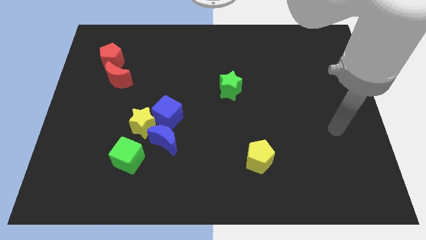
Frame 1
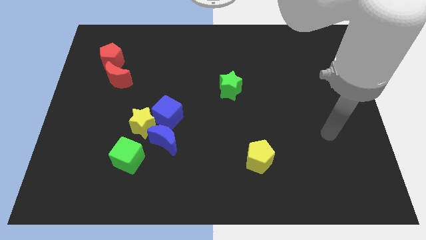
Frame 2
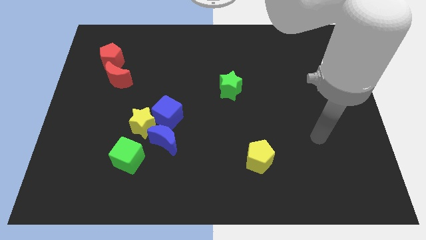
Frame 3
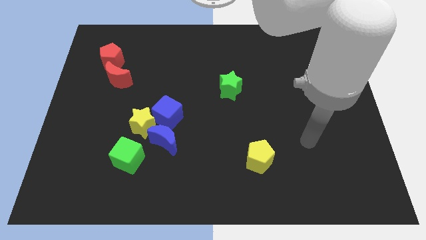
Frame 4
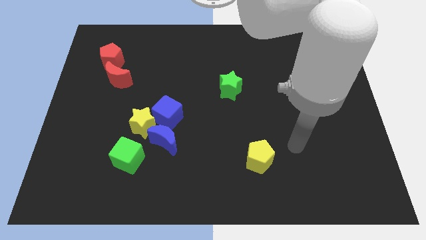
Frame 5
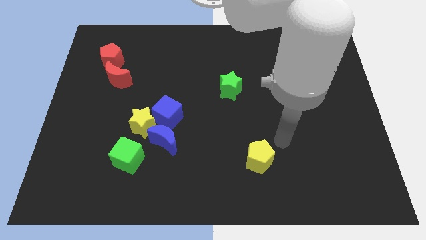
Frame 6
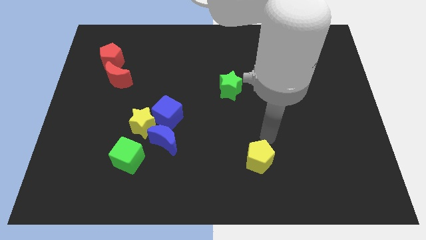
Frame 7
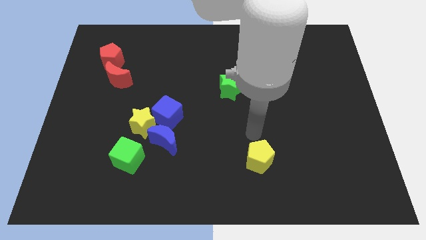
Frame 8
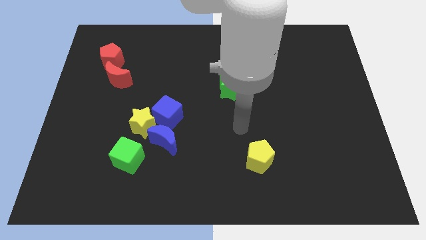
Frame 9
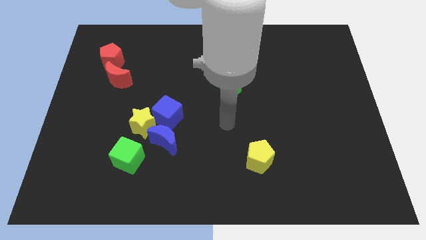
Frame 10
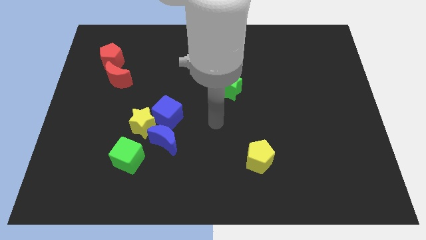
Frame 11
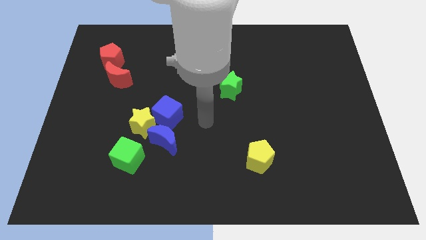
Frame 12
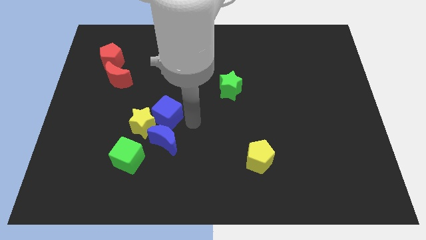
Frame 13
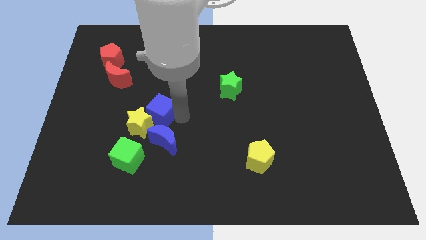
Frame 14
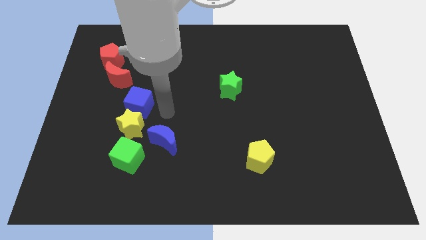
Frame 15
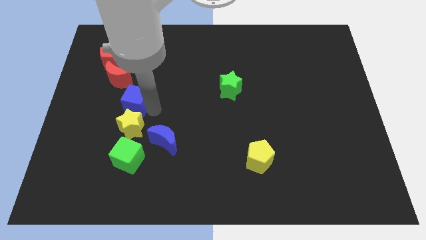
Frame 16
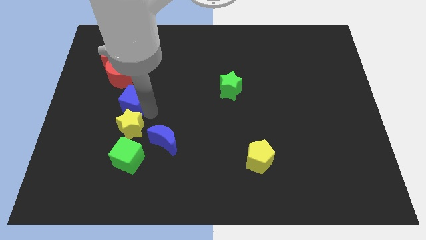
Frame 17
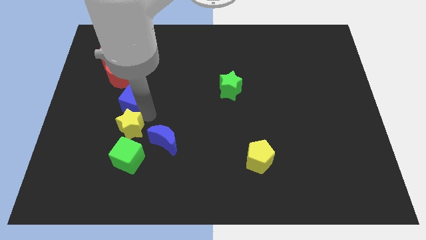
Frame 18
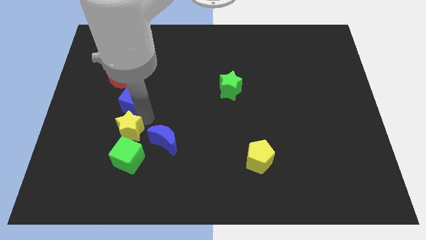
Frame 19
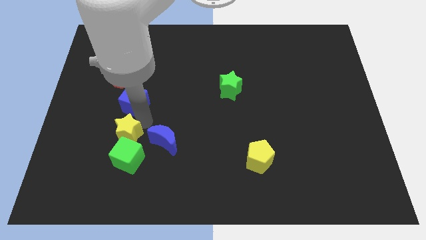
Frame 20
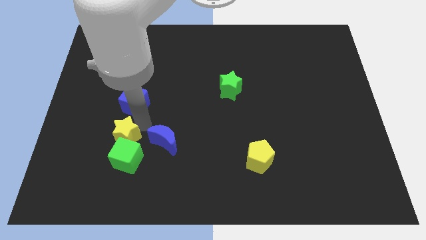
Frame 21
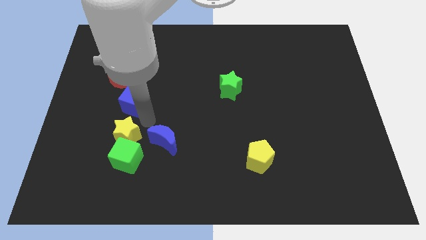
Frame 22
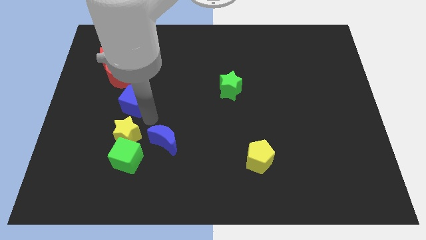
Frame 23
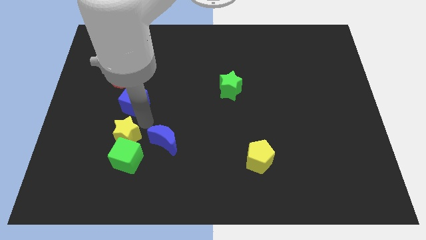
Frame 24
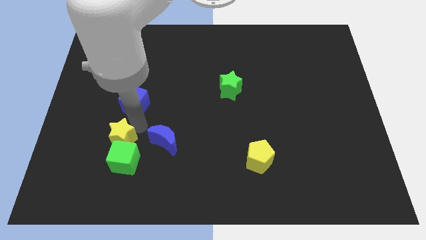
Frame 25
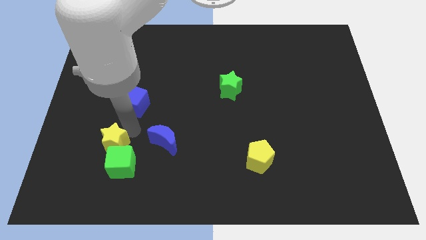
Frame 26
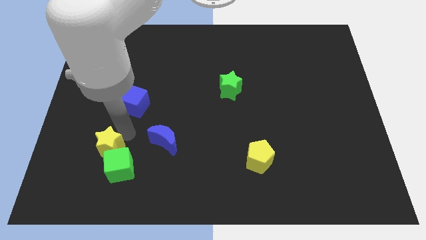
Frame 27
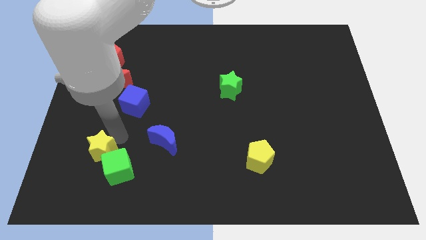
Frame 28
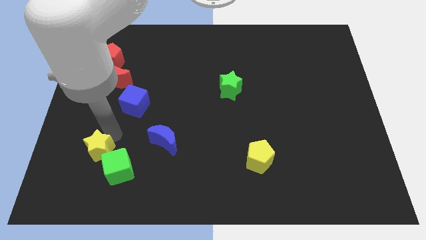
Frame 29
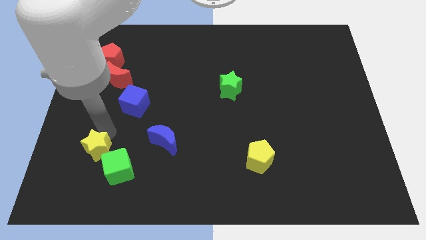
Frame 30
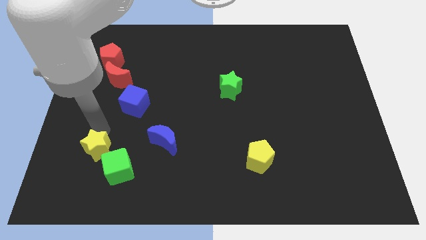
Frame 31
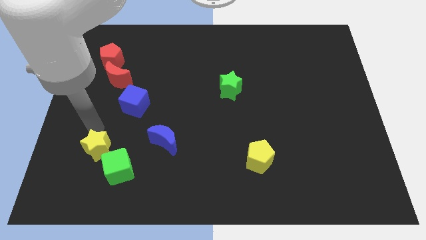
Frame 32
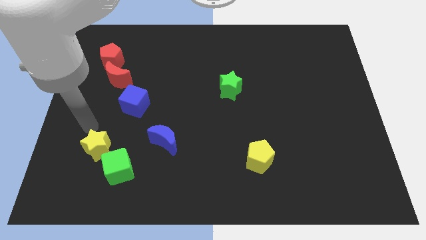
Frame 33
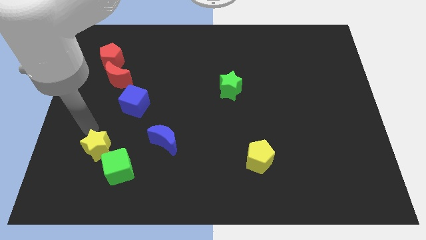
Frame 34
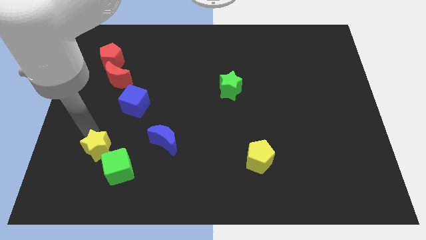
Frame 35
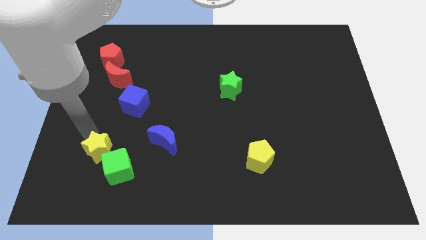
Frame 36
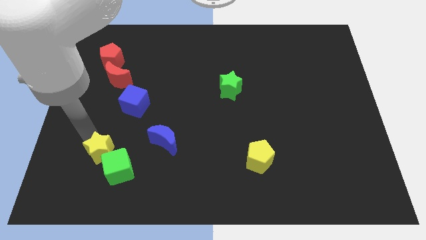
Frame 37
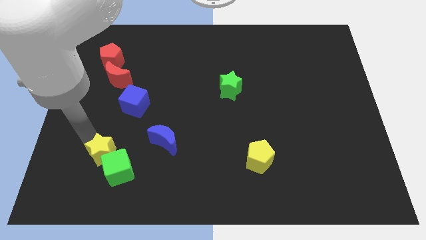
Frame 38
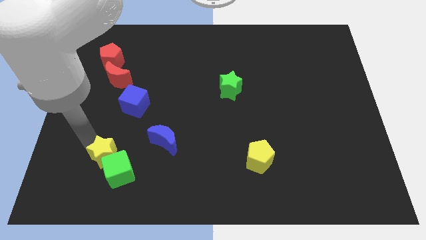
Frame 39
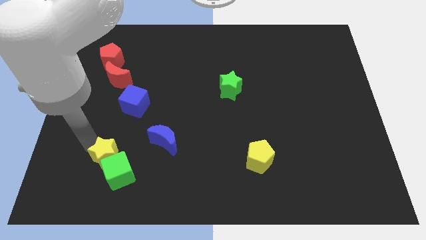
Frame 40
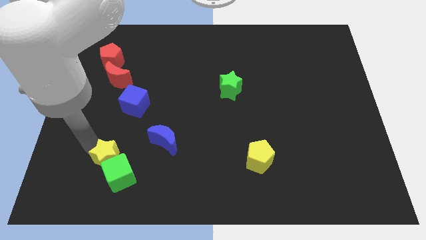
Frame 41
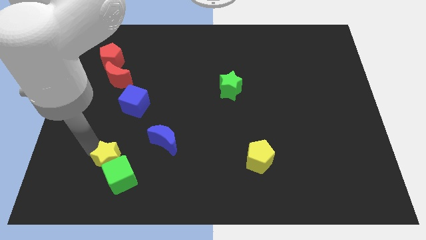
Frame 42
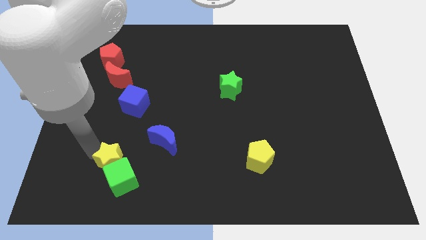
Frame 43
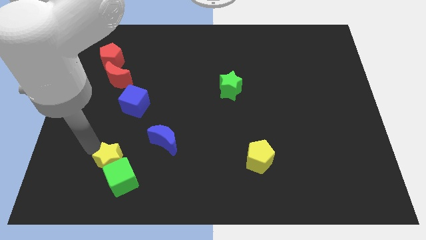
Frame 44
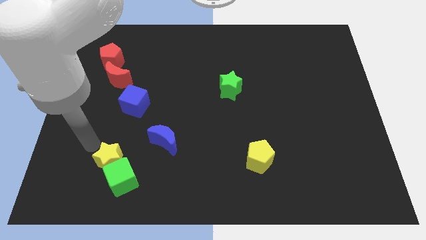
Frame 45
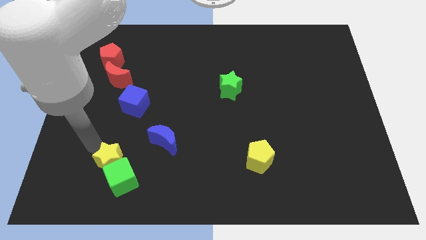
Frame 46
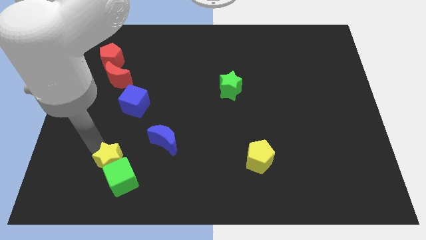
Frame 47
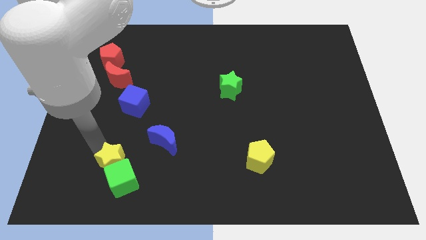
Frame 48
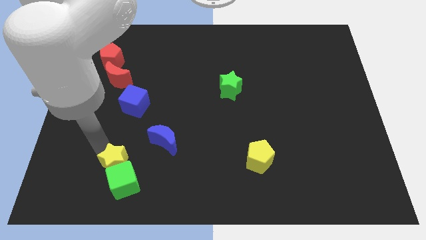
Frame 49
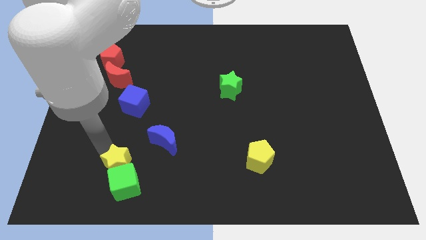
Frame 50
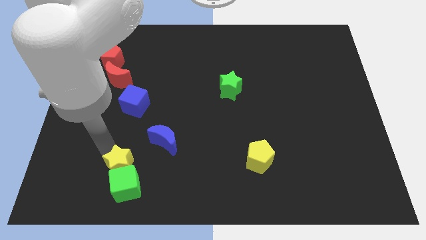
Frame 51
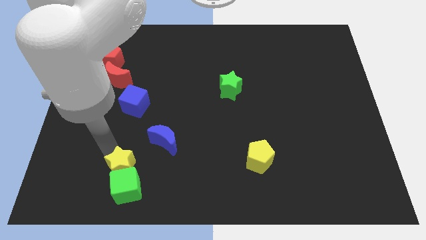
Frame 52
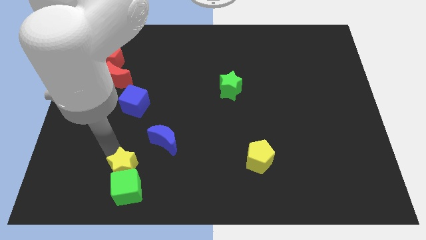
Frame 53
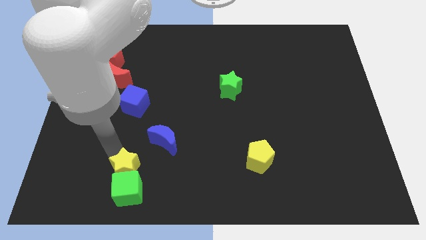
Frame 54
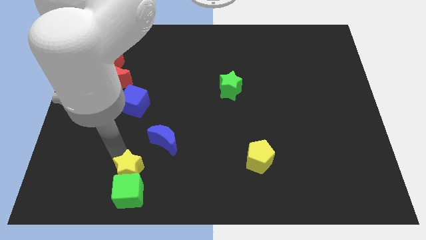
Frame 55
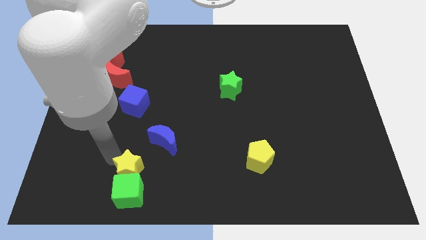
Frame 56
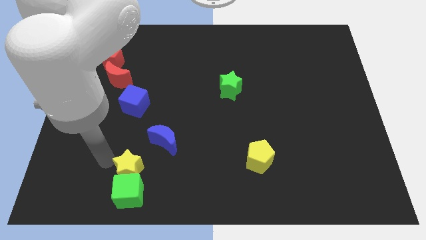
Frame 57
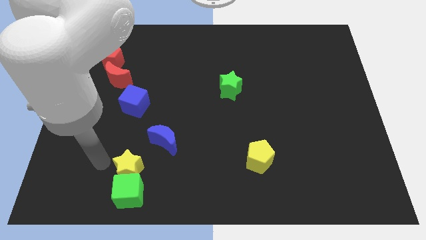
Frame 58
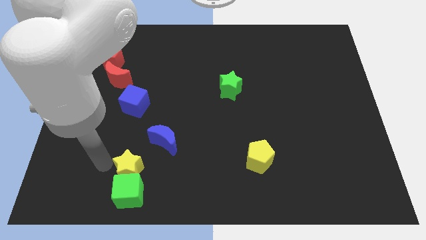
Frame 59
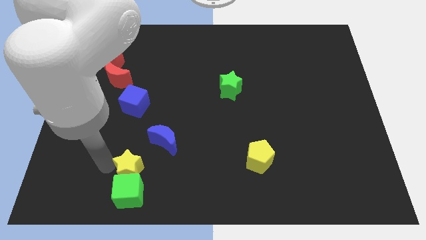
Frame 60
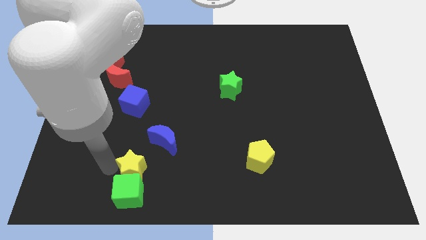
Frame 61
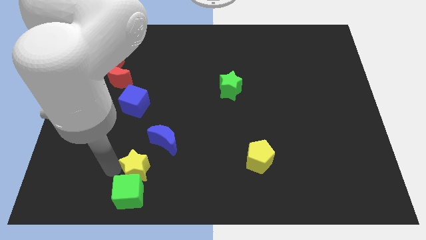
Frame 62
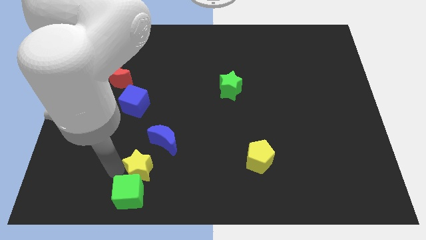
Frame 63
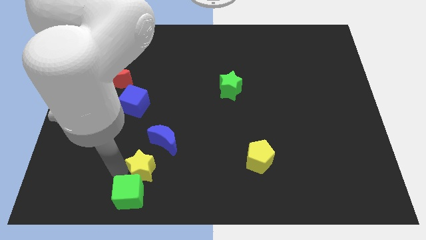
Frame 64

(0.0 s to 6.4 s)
move the yellow star a bit down and then to the right

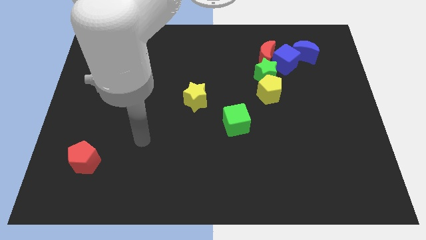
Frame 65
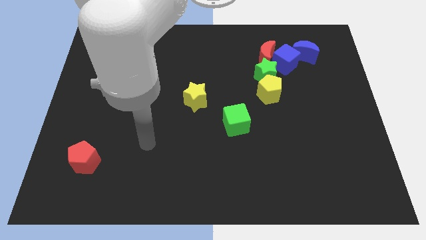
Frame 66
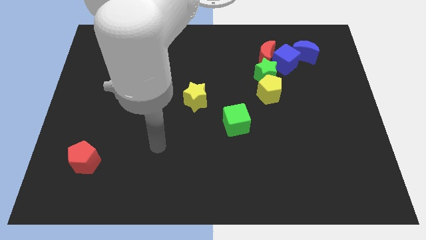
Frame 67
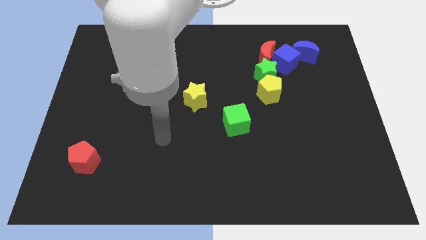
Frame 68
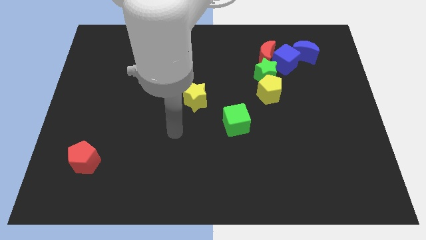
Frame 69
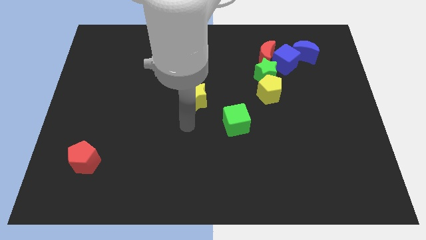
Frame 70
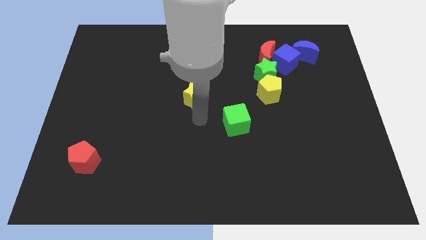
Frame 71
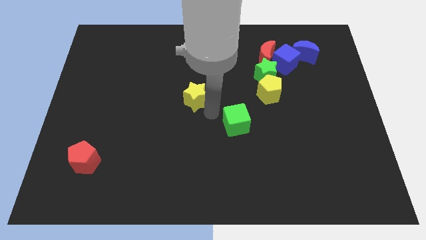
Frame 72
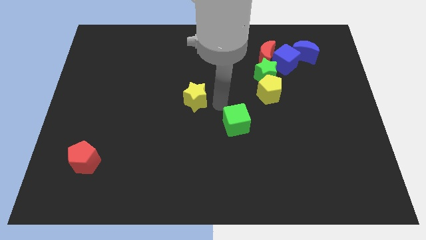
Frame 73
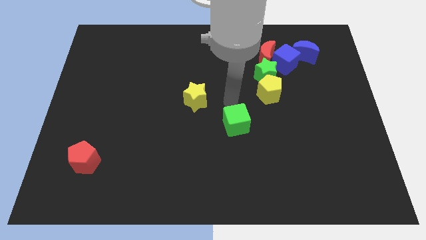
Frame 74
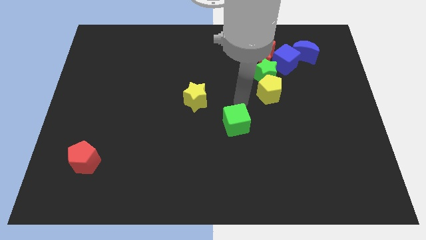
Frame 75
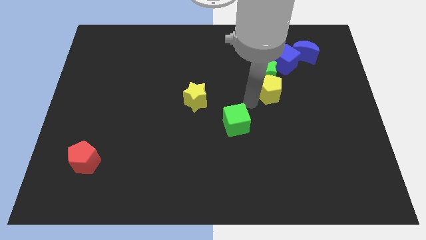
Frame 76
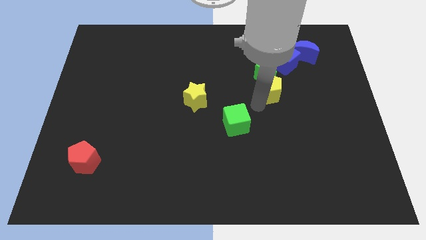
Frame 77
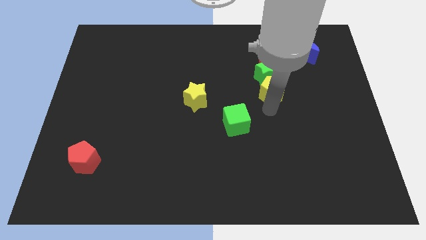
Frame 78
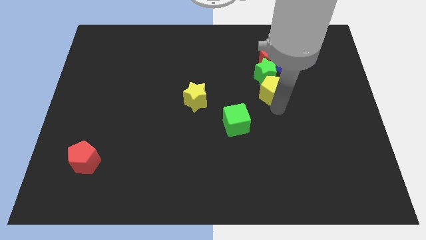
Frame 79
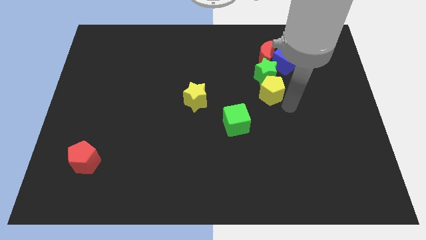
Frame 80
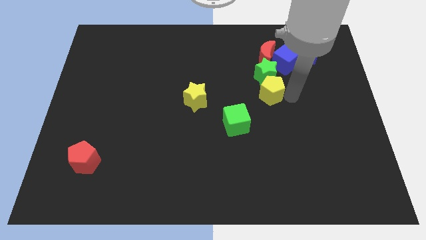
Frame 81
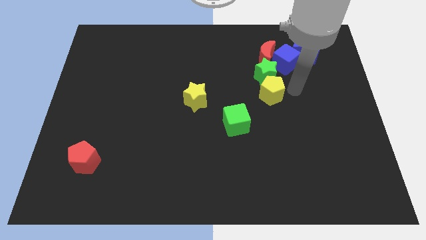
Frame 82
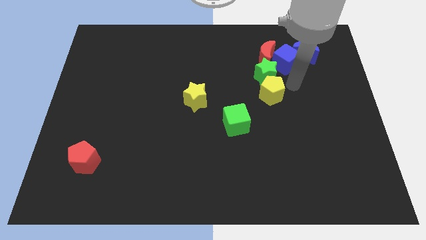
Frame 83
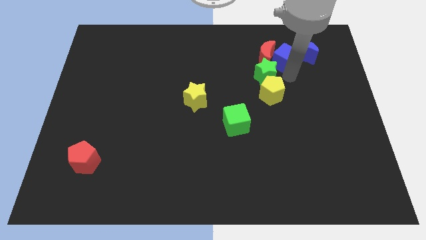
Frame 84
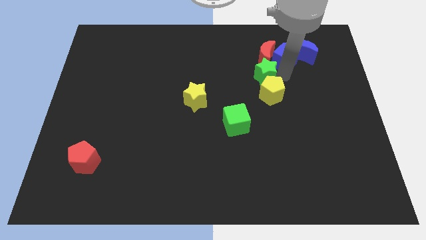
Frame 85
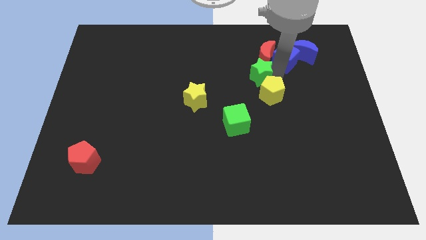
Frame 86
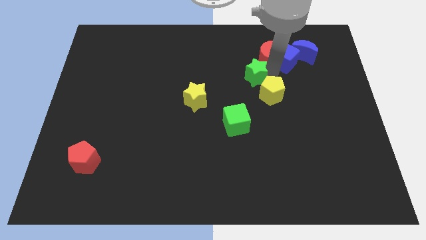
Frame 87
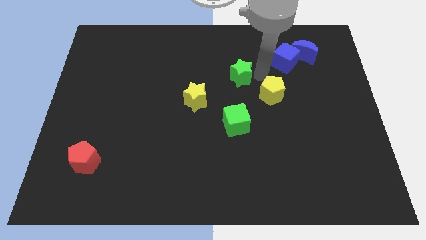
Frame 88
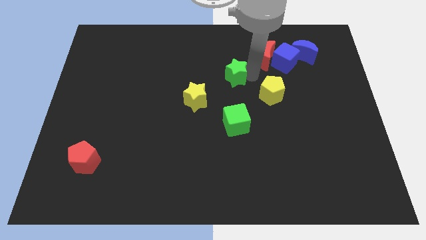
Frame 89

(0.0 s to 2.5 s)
slightly move the green star left
